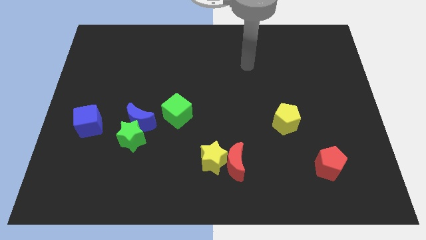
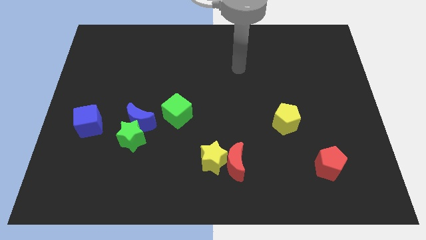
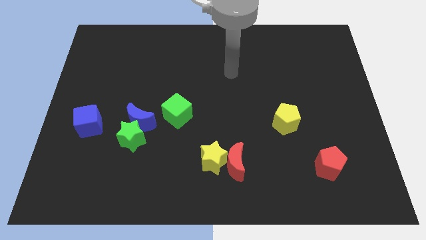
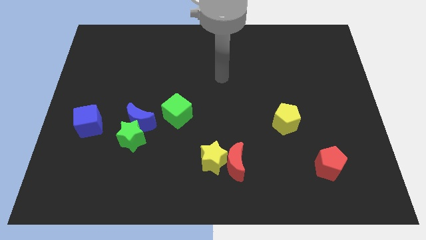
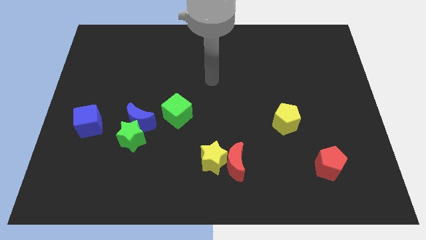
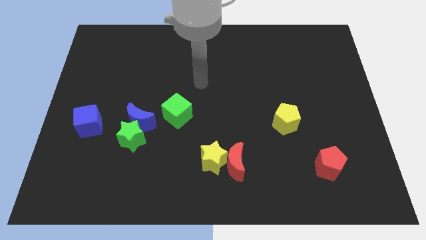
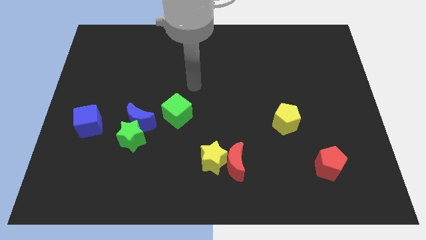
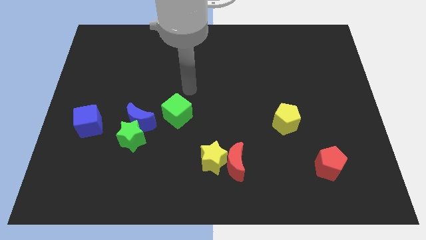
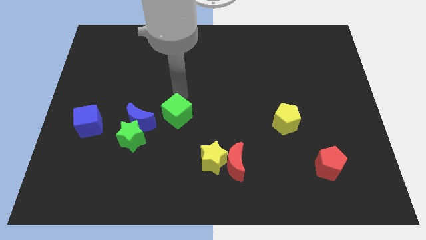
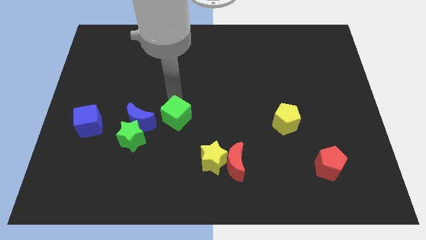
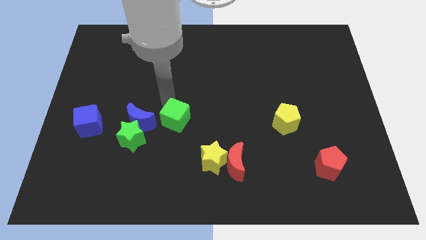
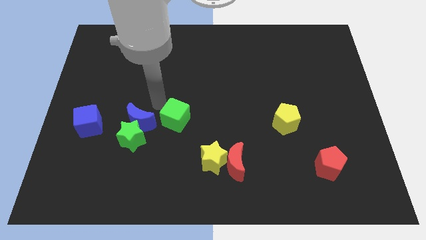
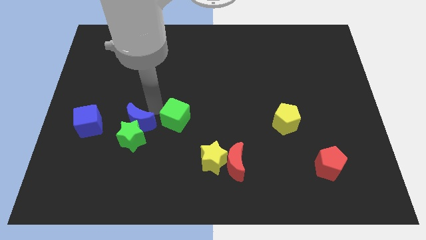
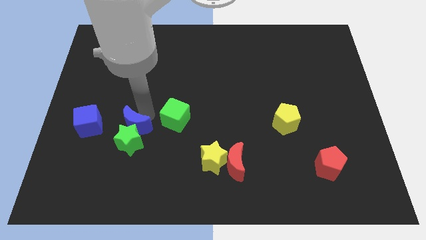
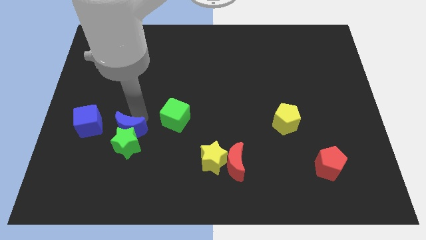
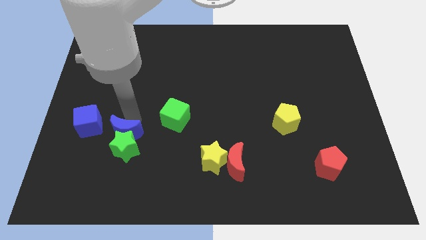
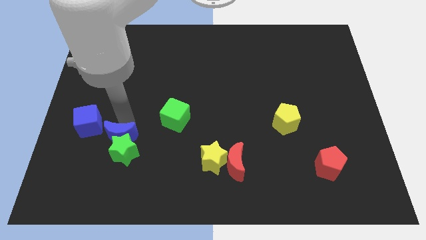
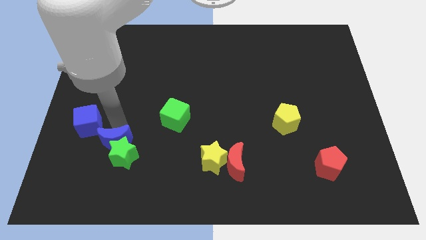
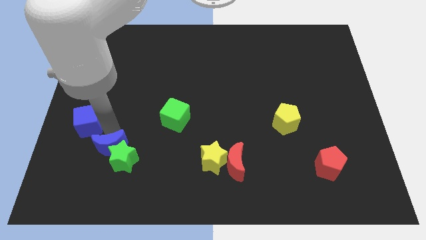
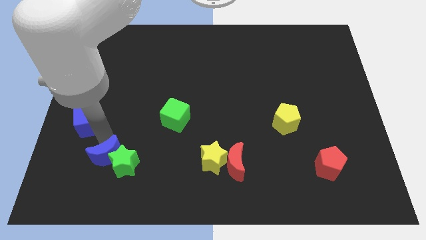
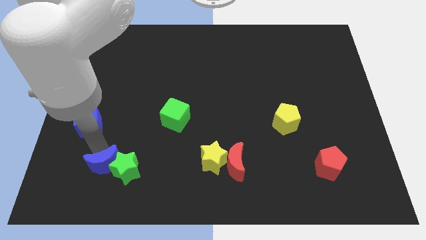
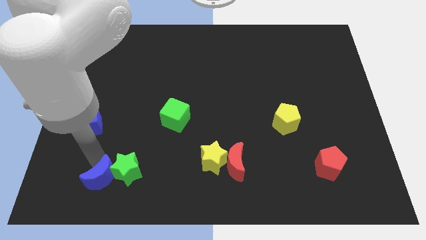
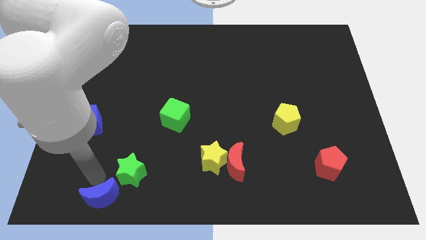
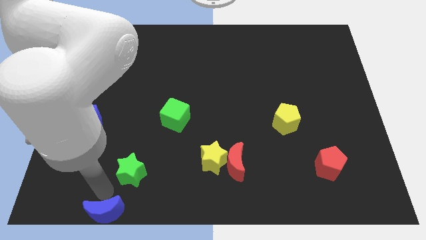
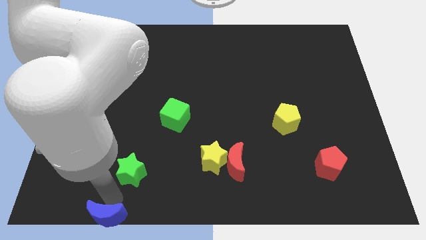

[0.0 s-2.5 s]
separate the green star from the blue moon

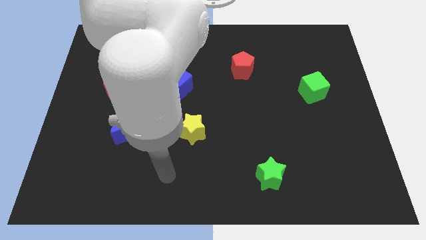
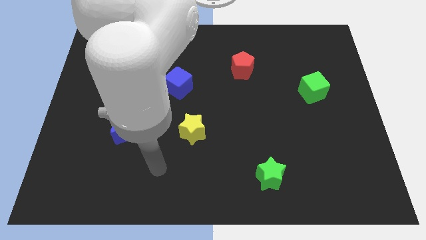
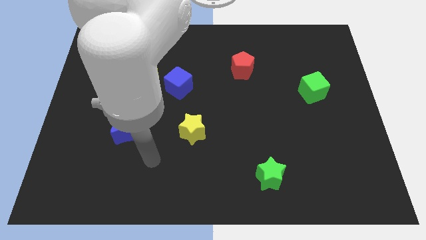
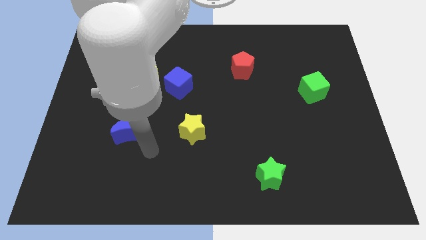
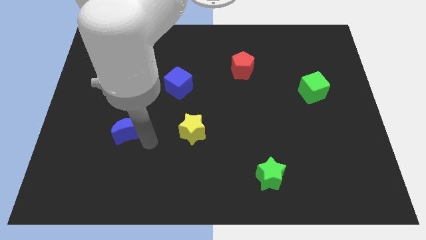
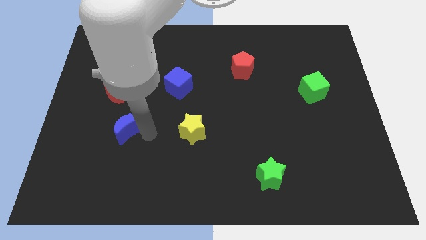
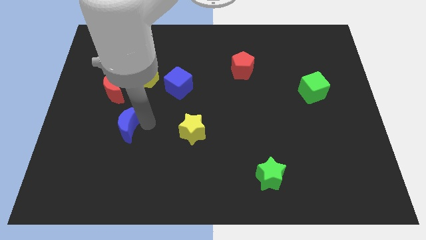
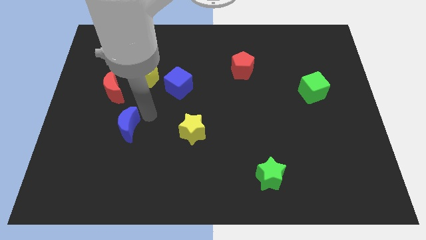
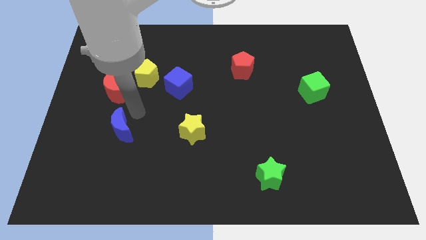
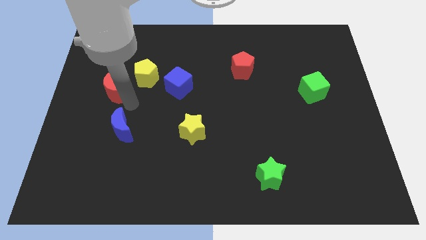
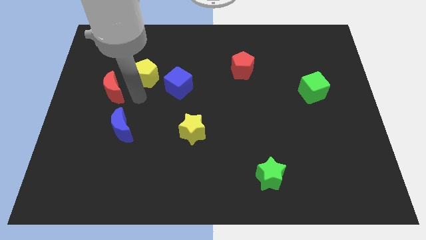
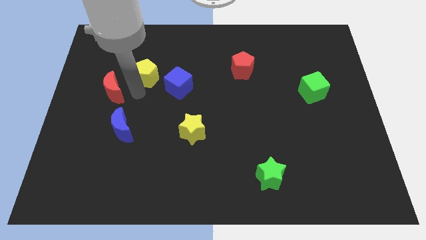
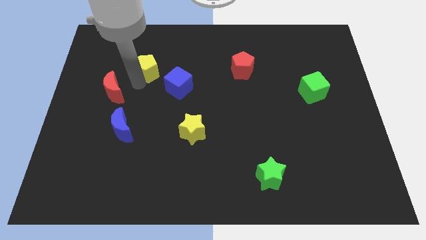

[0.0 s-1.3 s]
pull the red moon apart from the yellow pentagon

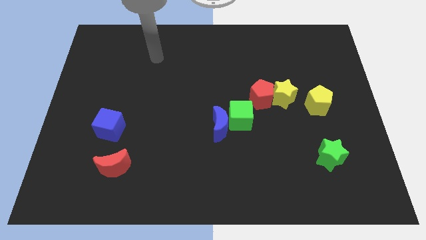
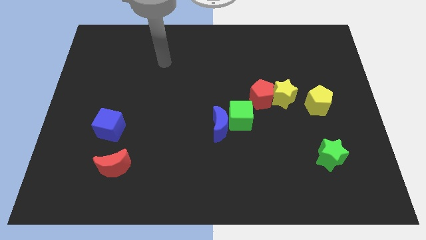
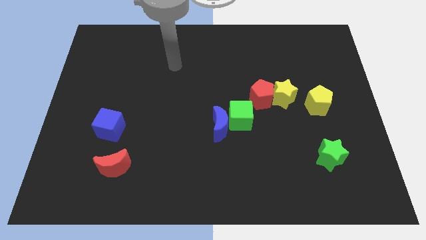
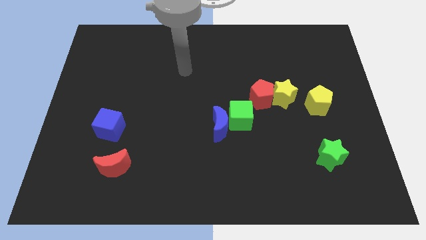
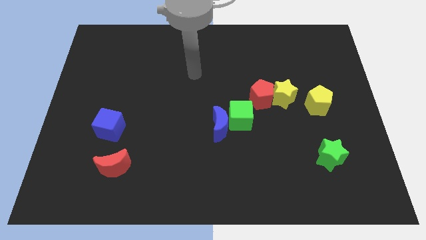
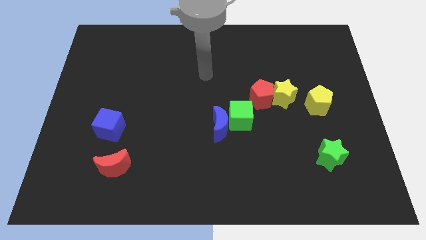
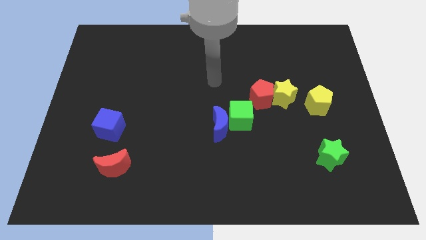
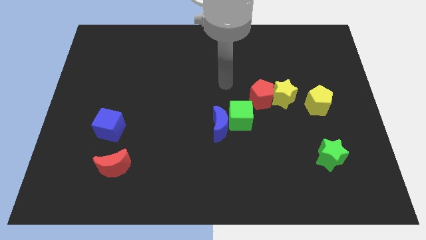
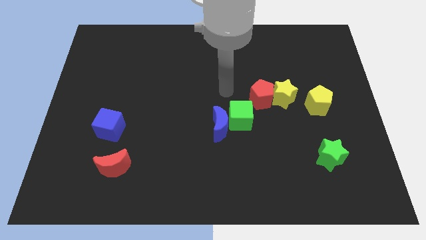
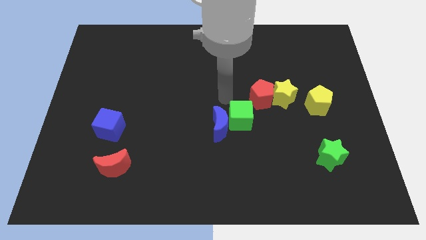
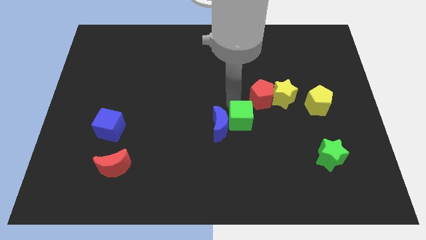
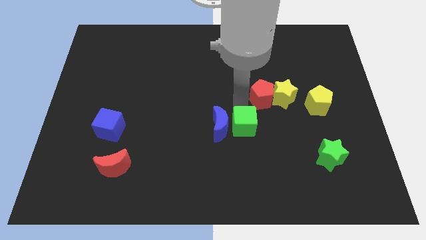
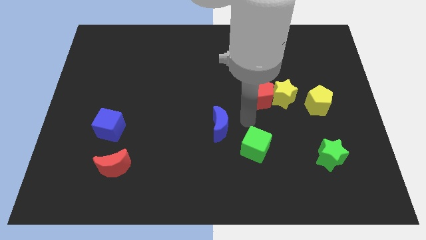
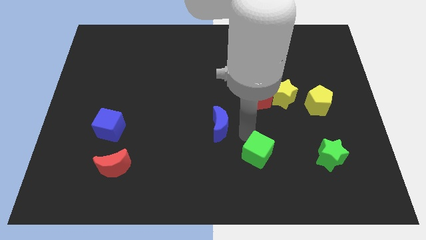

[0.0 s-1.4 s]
pull the blue moon apart from the green cube

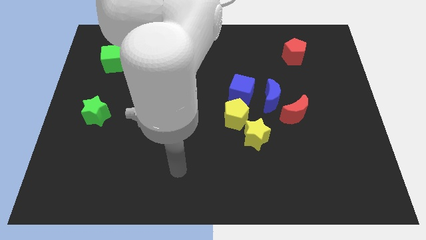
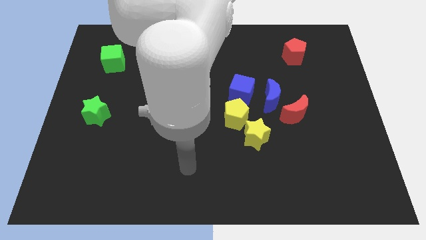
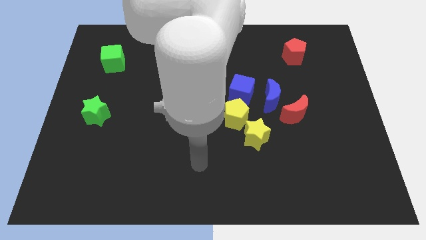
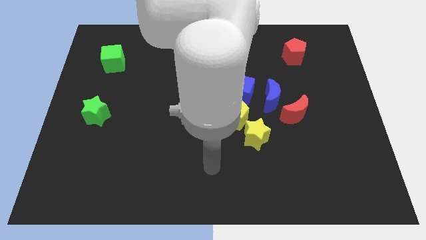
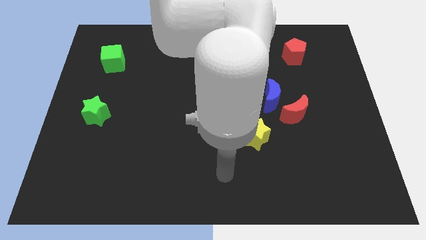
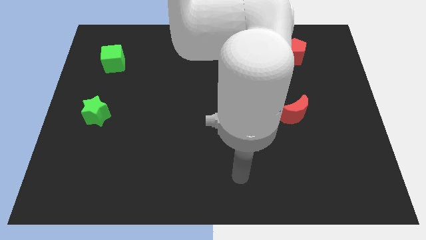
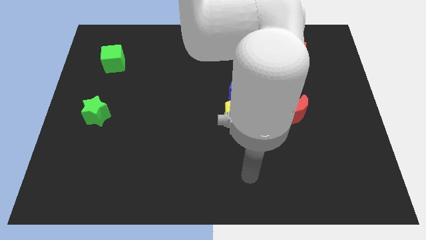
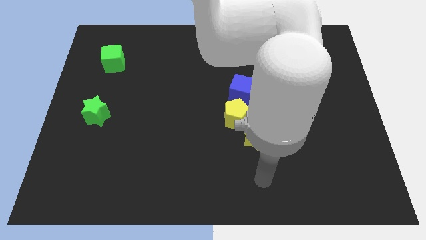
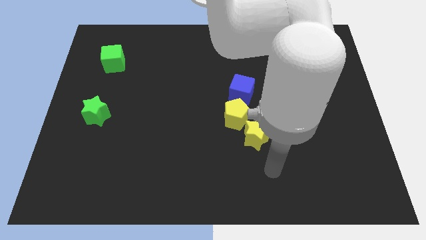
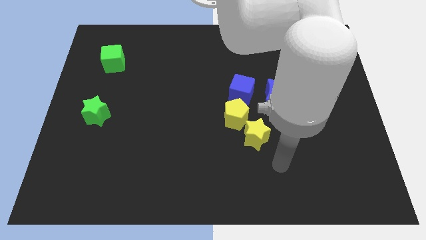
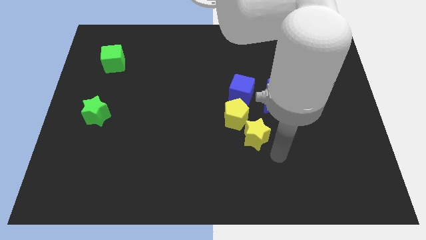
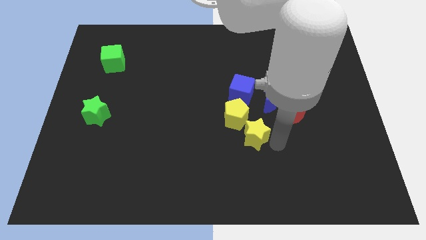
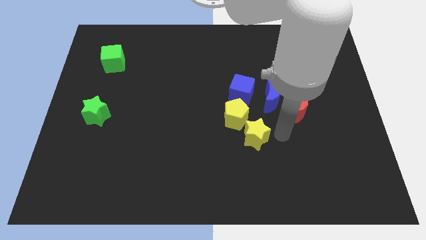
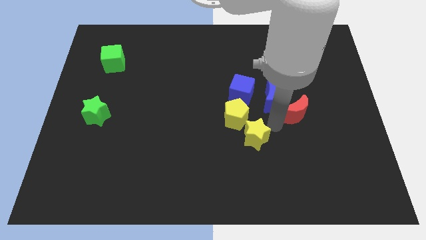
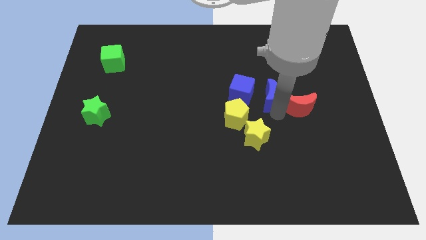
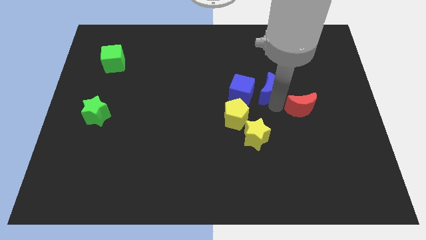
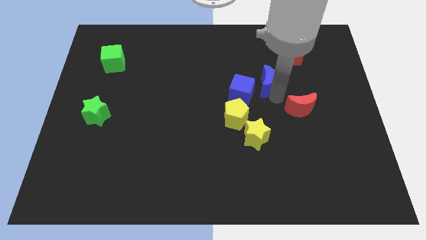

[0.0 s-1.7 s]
move the red moon away from the blue moon

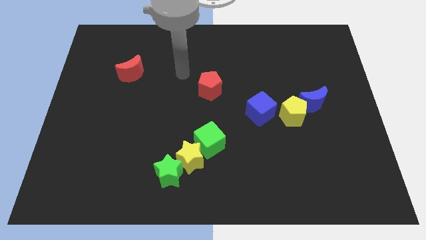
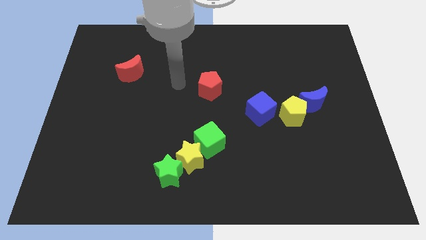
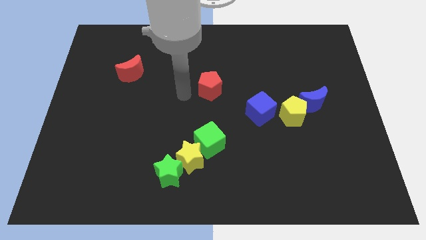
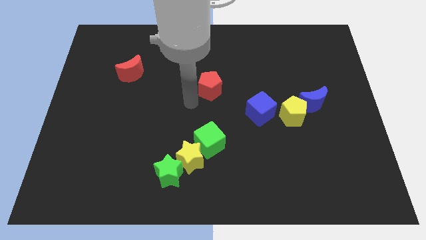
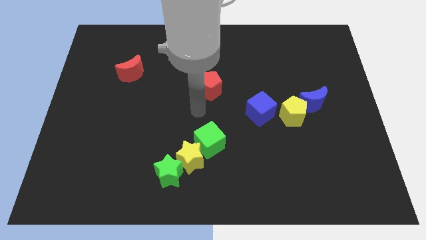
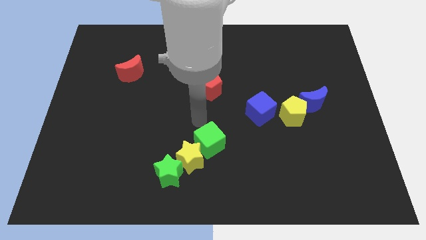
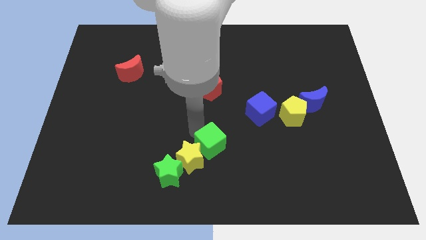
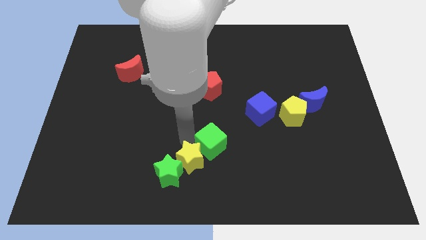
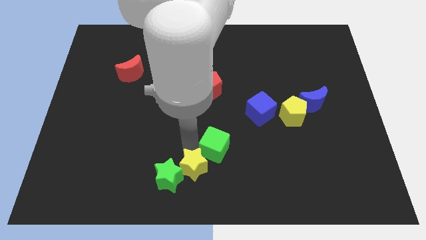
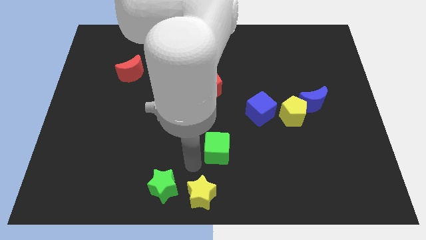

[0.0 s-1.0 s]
move the green cube away from the yellow star

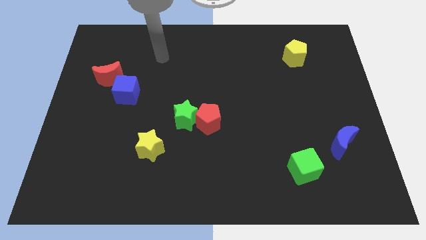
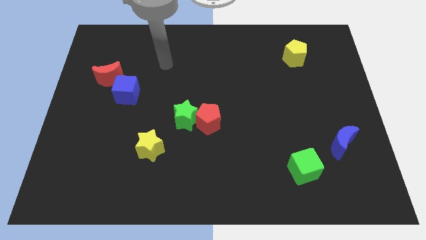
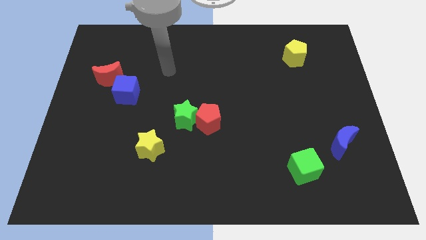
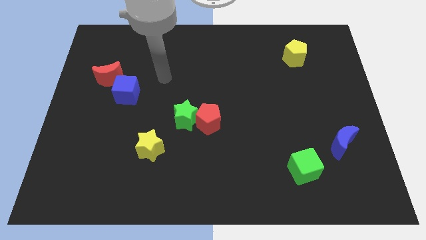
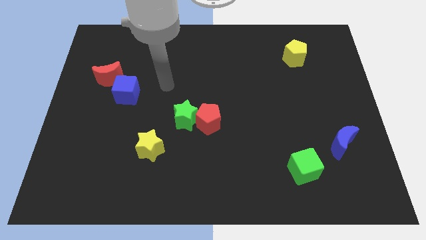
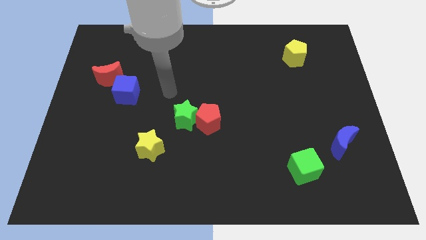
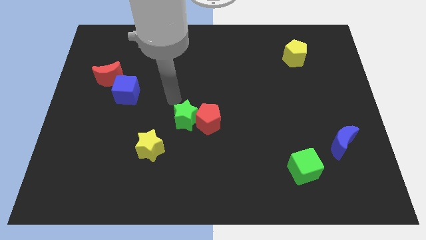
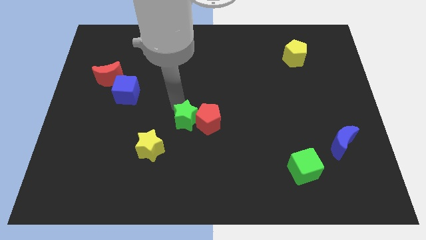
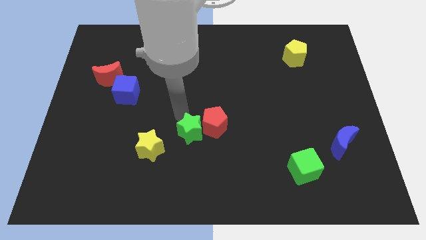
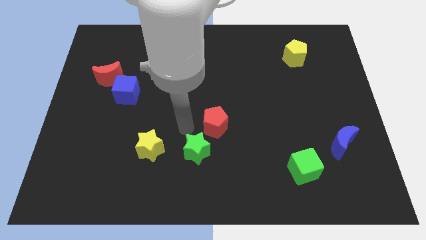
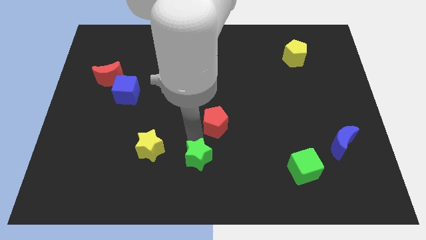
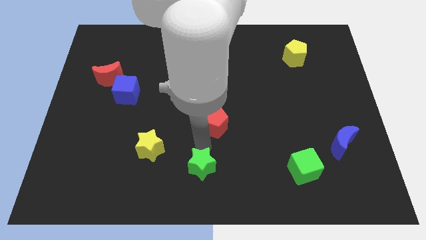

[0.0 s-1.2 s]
move the red pentagon away from the green star

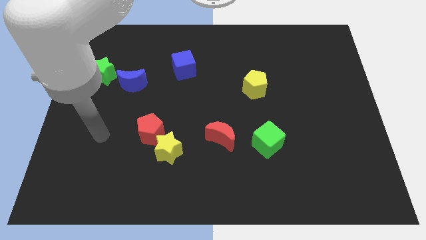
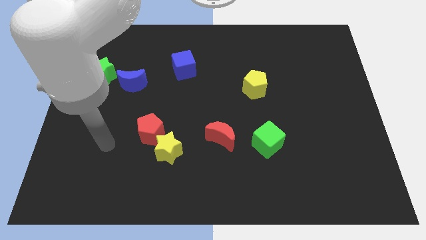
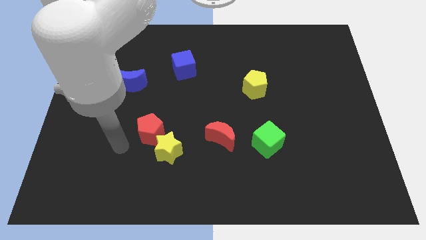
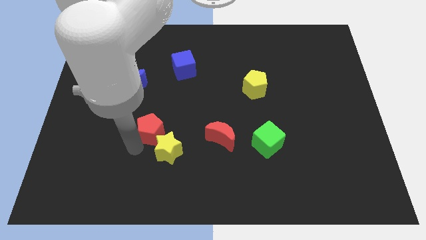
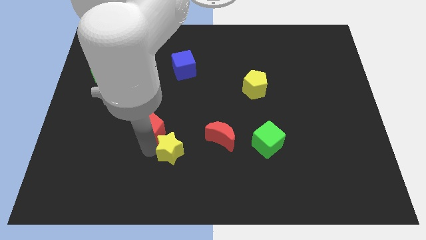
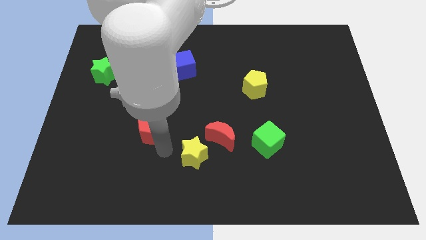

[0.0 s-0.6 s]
separate the red pentagon from the yellow star
